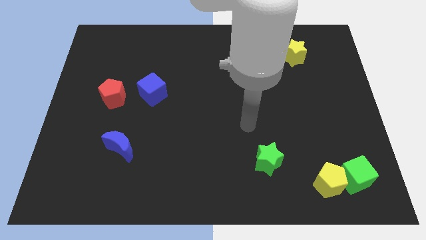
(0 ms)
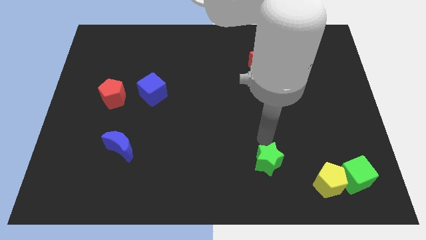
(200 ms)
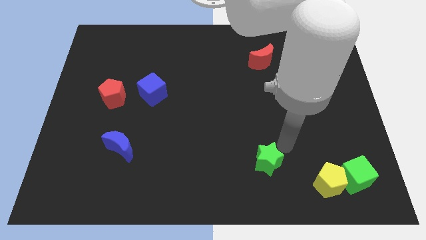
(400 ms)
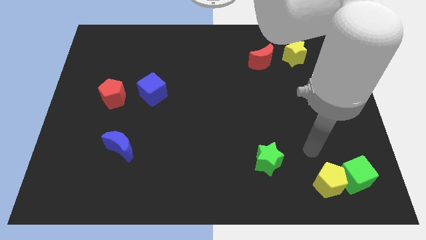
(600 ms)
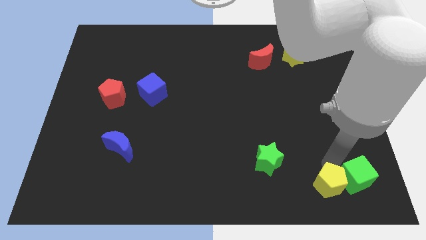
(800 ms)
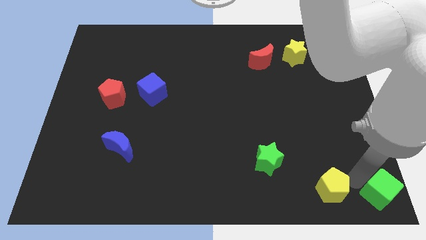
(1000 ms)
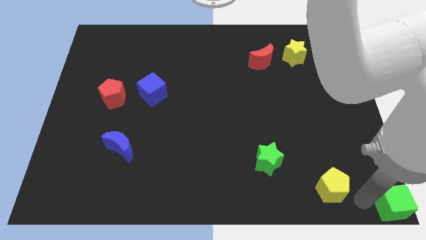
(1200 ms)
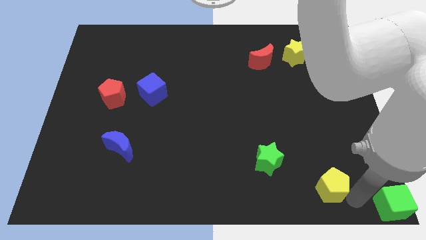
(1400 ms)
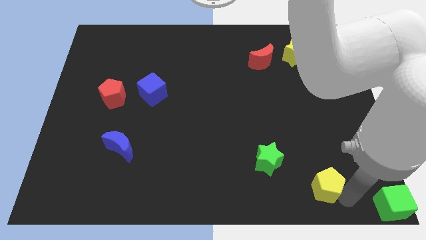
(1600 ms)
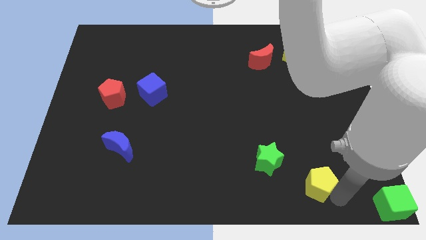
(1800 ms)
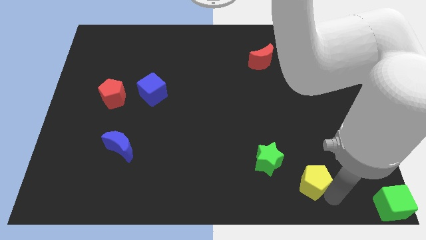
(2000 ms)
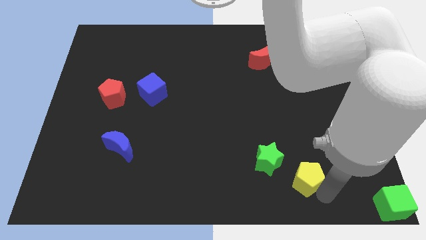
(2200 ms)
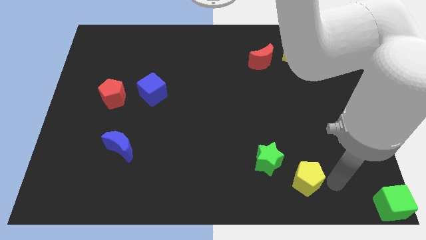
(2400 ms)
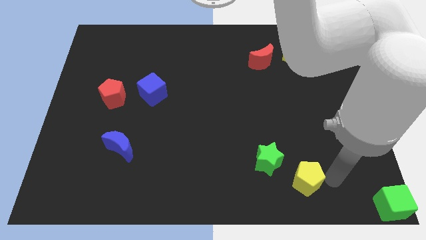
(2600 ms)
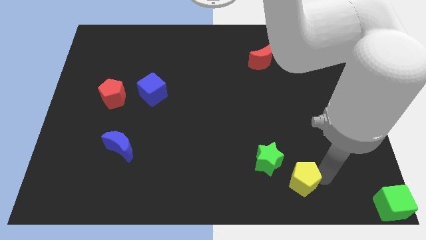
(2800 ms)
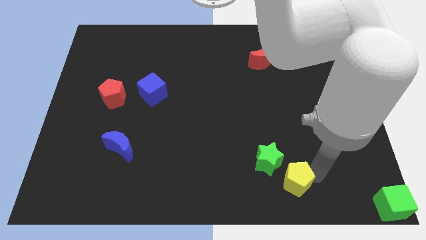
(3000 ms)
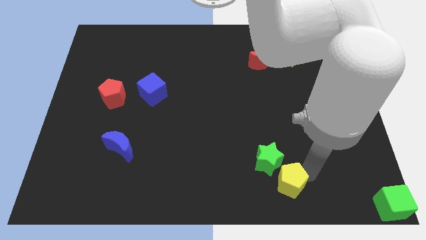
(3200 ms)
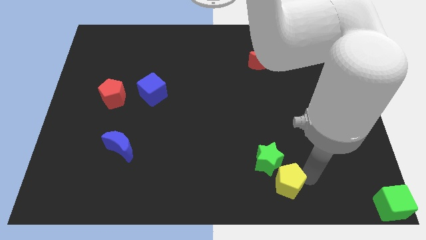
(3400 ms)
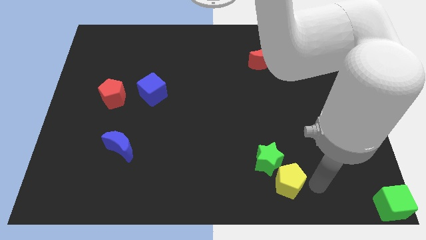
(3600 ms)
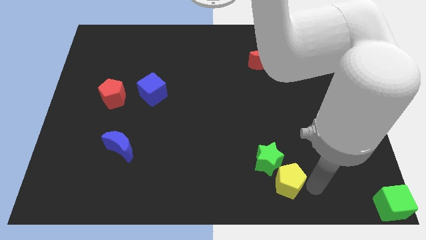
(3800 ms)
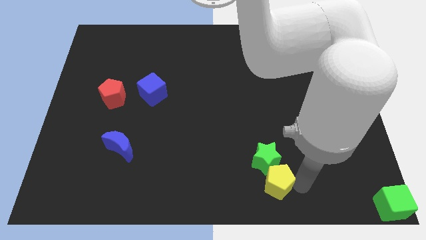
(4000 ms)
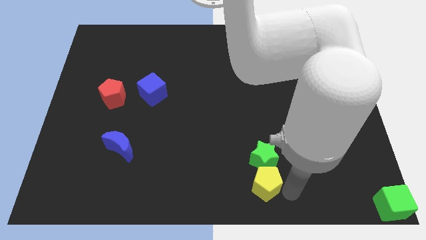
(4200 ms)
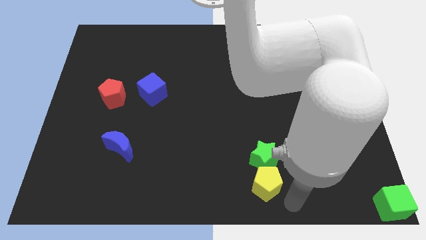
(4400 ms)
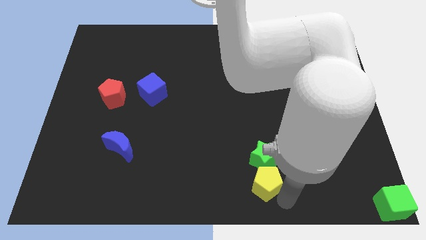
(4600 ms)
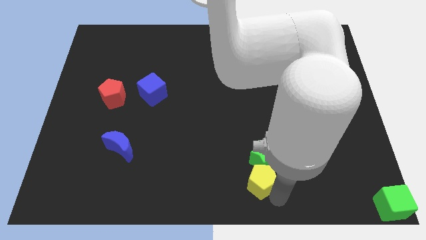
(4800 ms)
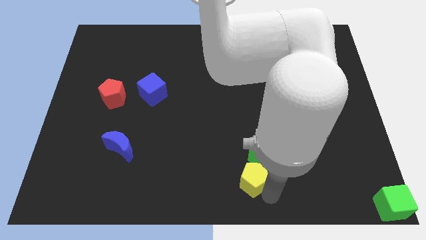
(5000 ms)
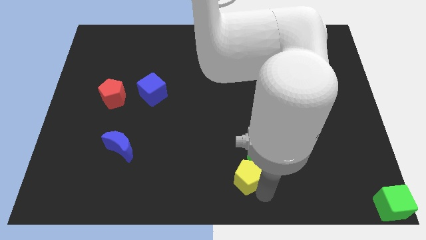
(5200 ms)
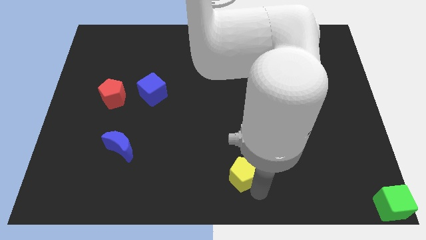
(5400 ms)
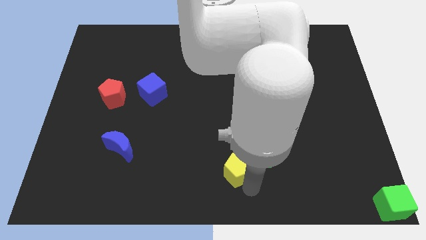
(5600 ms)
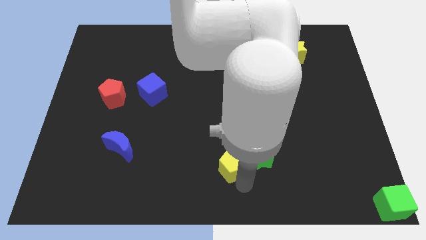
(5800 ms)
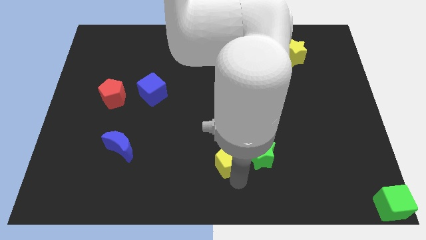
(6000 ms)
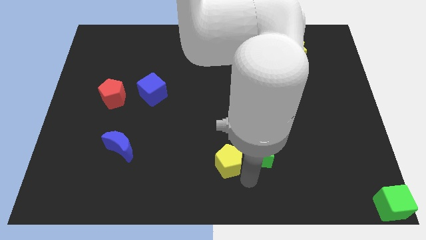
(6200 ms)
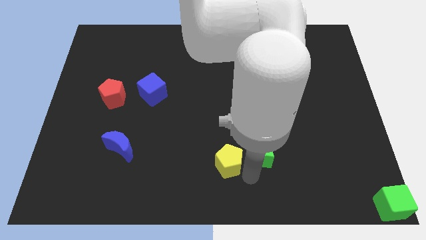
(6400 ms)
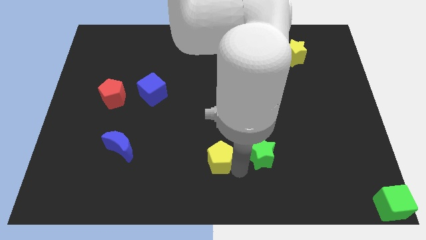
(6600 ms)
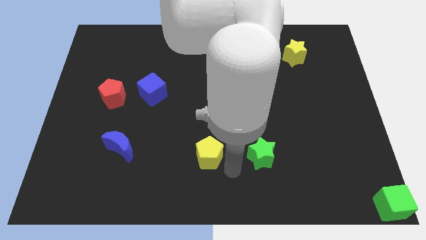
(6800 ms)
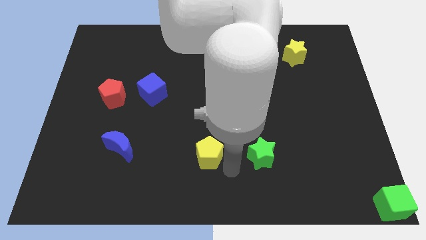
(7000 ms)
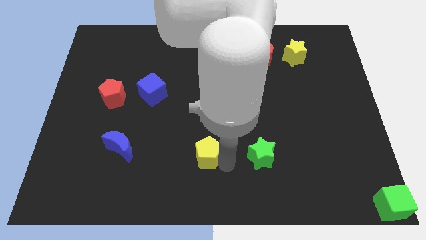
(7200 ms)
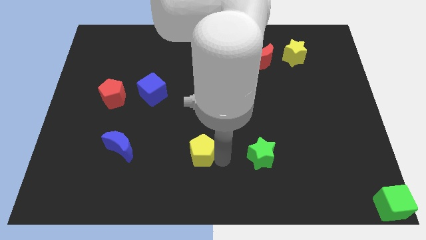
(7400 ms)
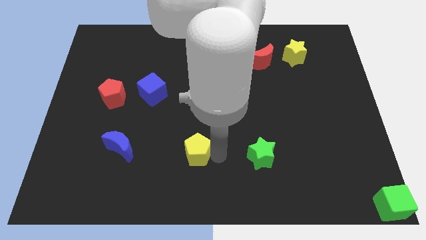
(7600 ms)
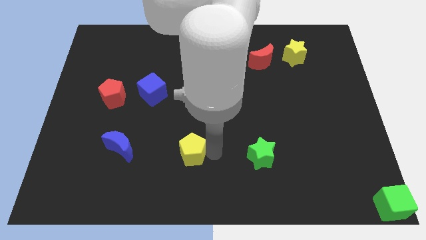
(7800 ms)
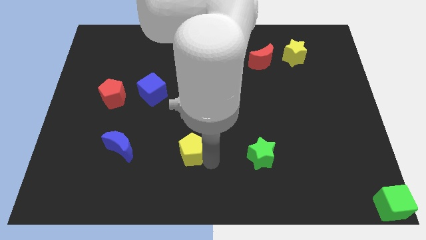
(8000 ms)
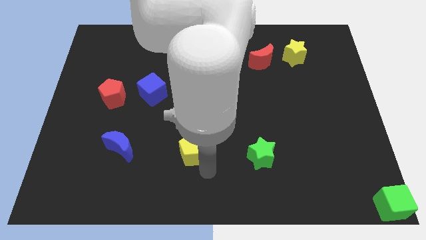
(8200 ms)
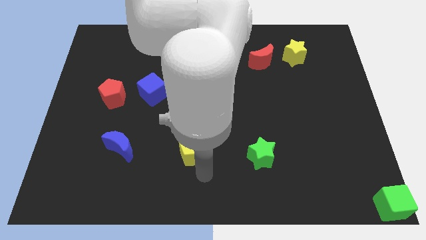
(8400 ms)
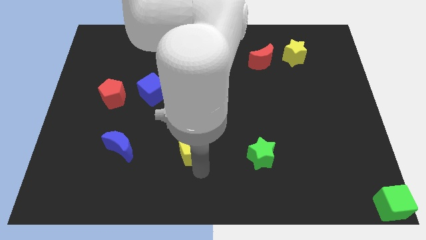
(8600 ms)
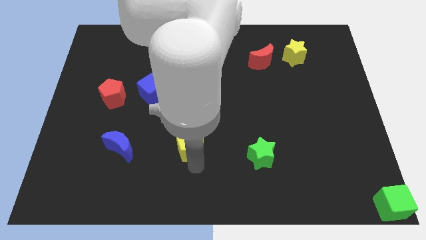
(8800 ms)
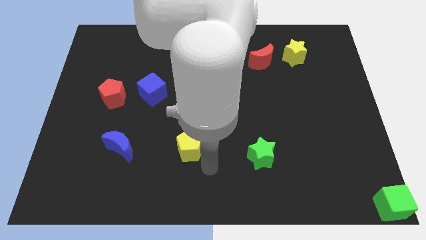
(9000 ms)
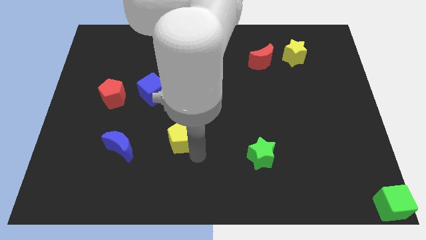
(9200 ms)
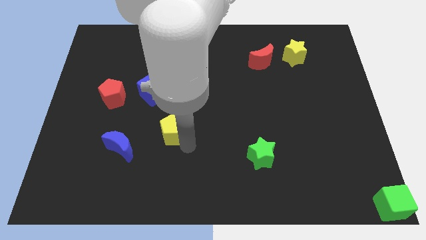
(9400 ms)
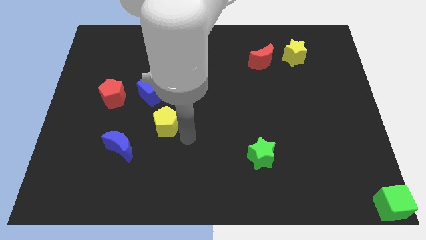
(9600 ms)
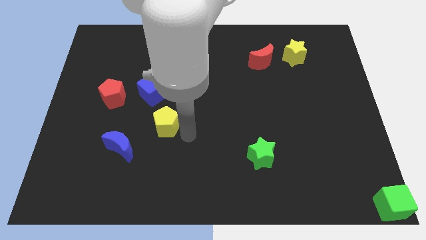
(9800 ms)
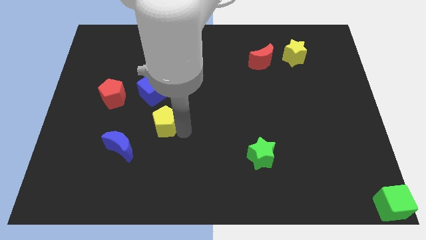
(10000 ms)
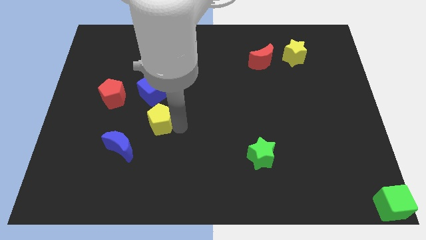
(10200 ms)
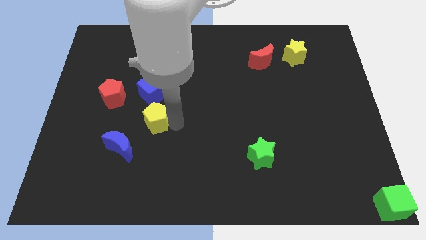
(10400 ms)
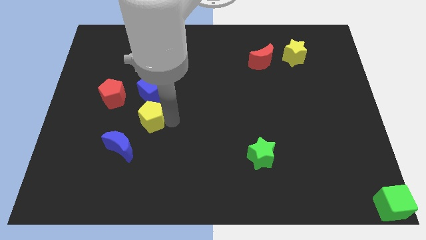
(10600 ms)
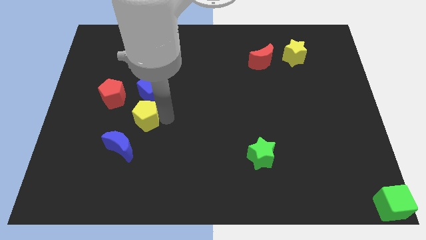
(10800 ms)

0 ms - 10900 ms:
put the yellow pentagon above the blue moon
